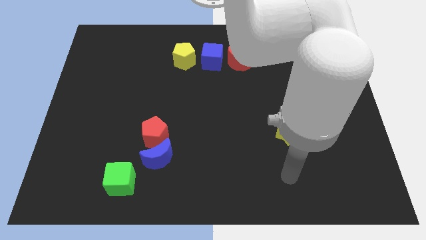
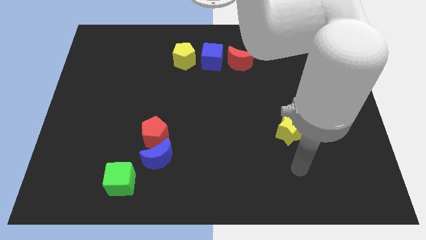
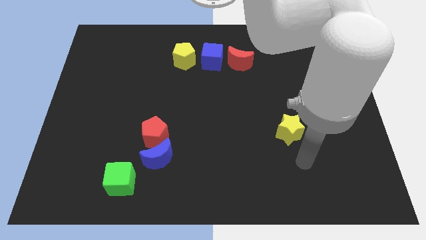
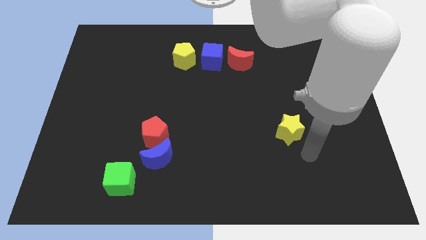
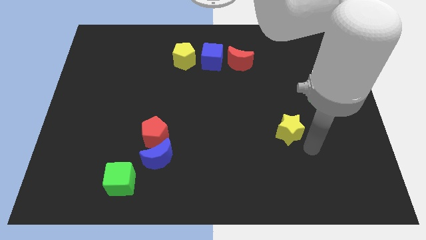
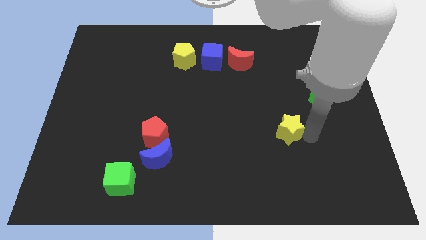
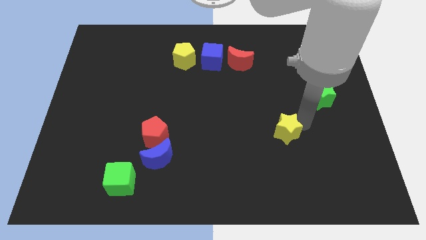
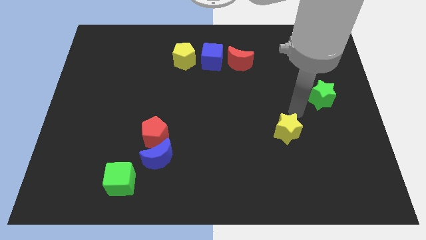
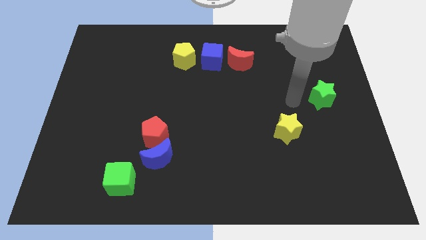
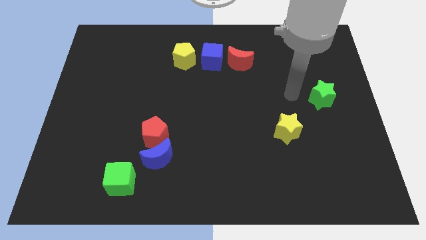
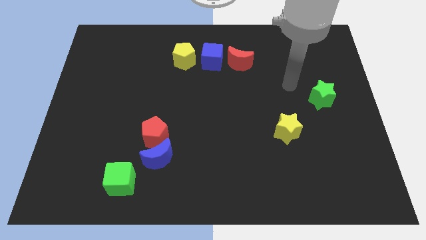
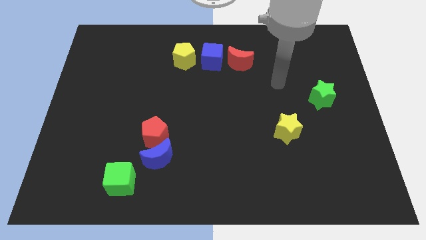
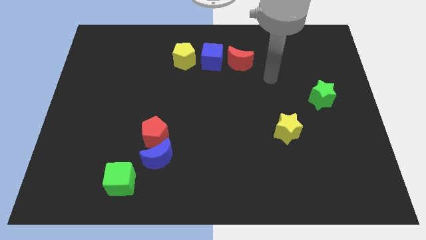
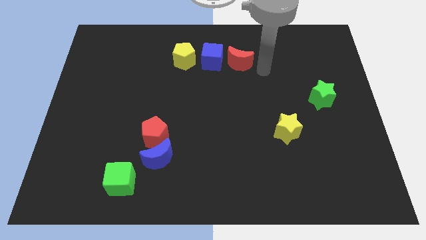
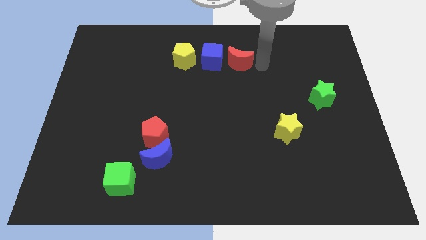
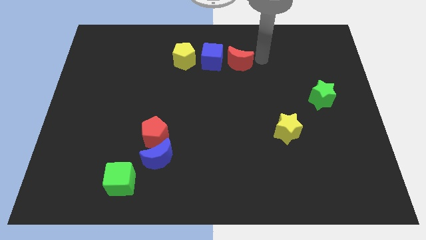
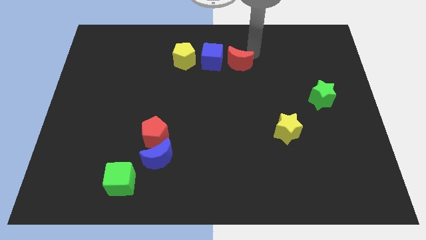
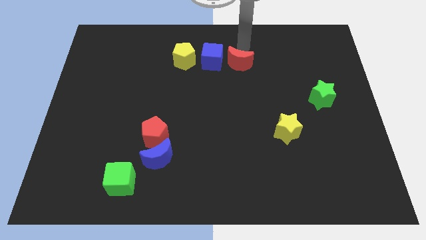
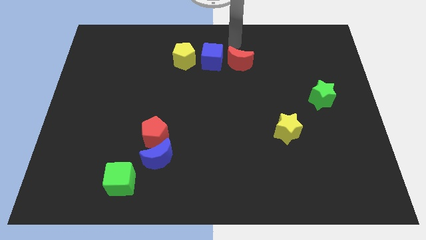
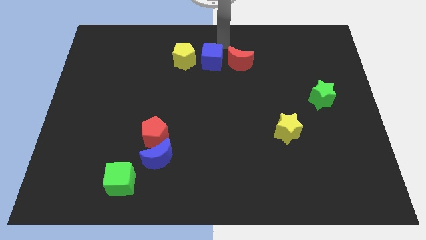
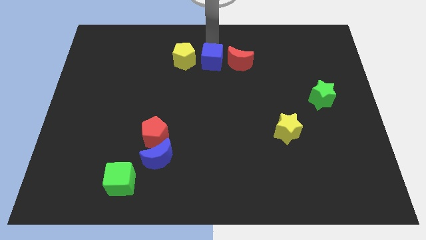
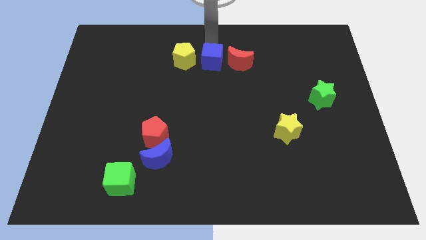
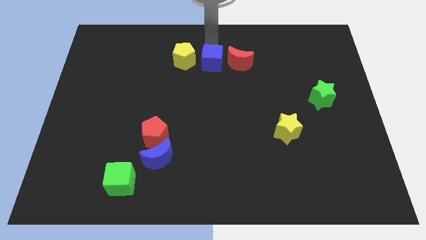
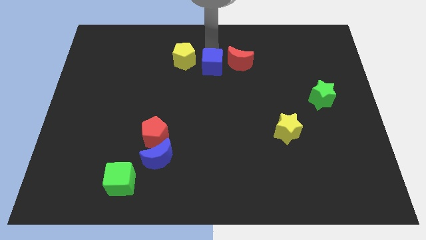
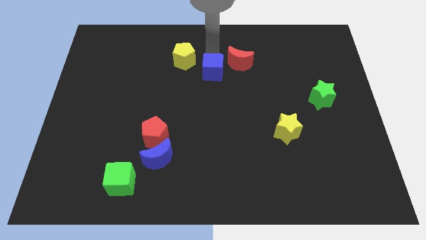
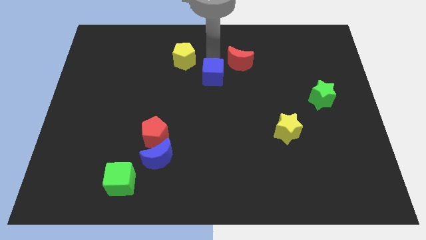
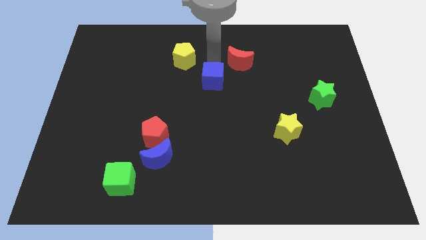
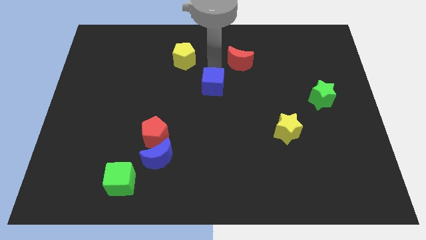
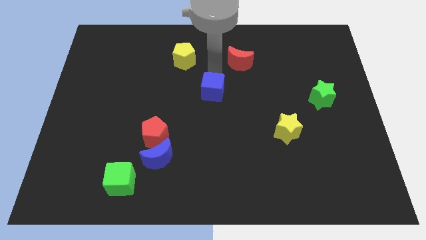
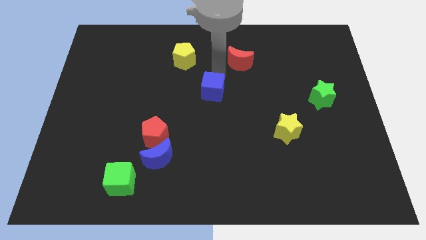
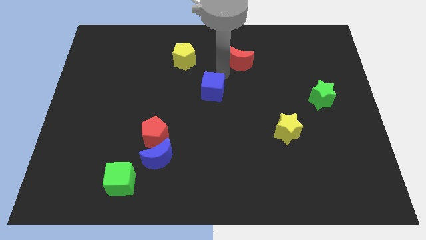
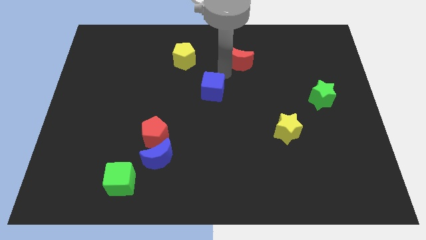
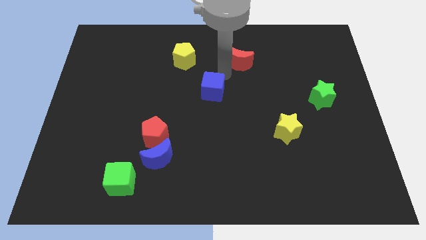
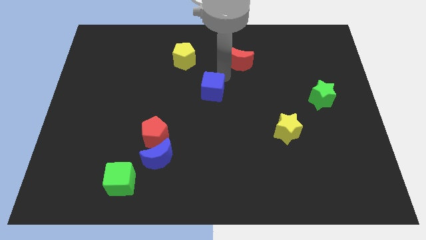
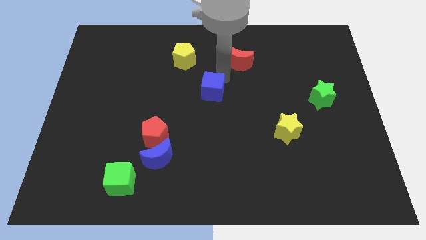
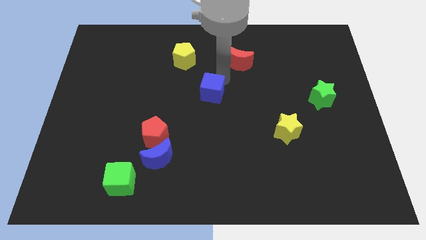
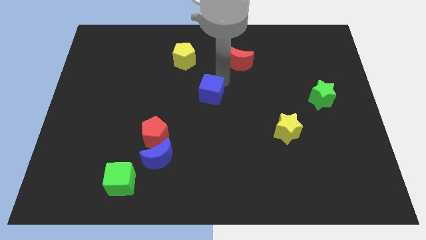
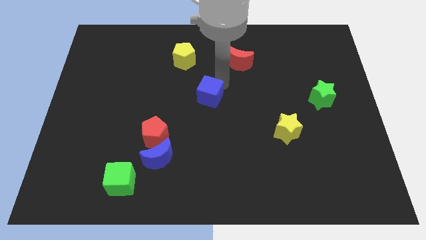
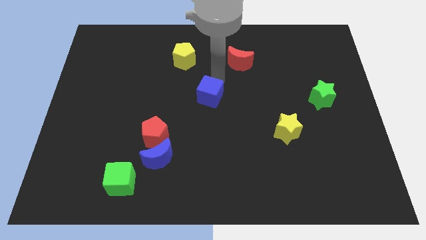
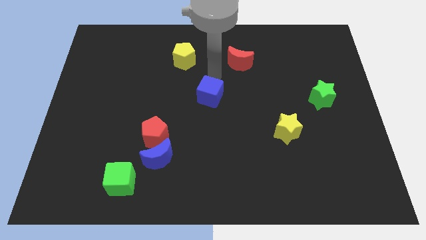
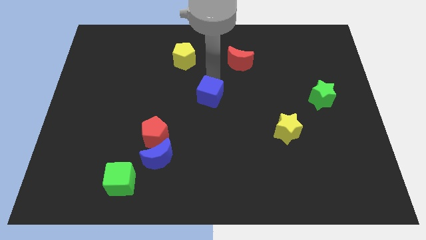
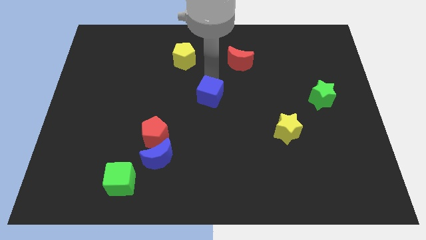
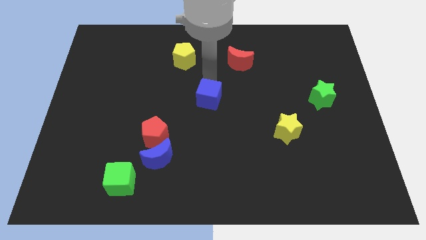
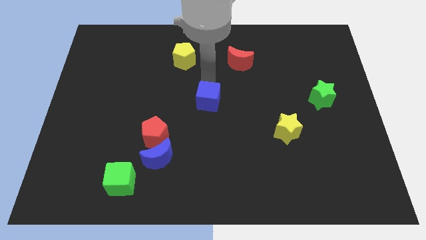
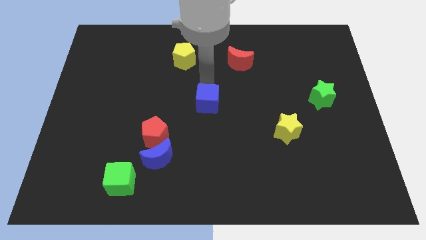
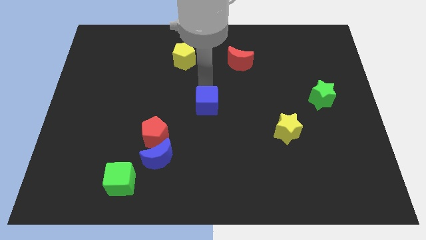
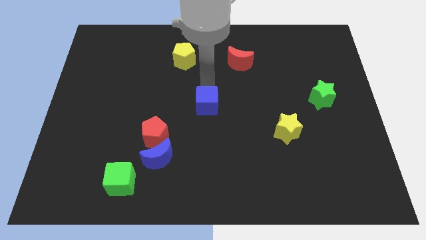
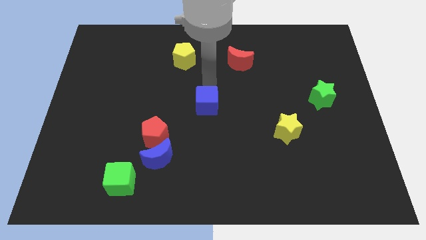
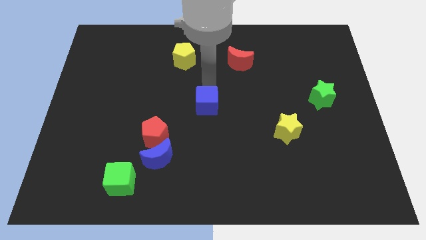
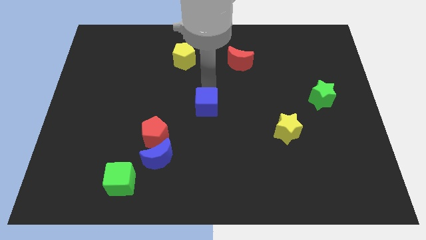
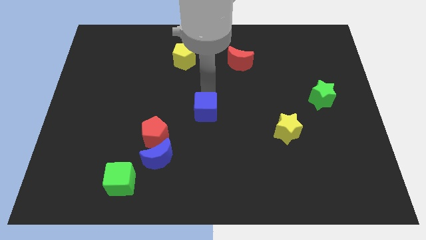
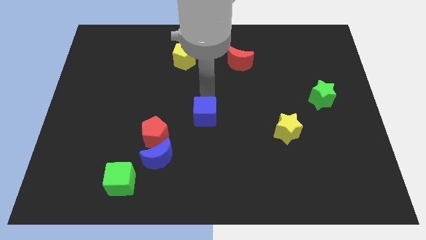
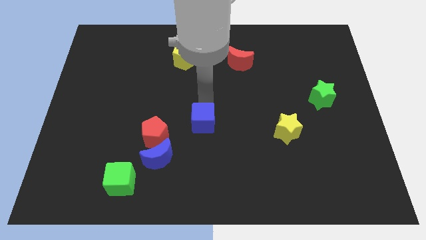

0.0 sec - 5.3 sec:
push the blue cube down

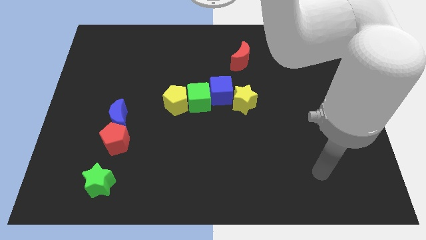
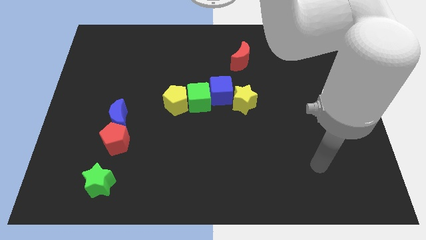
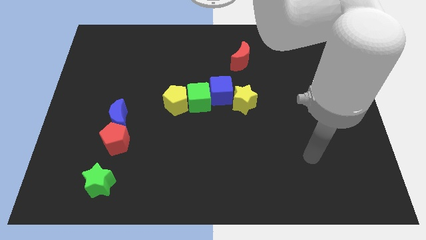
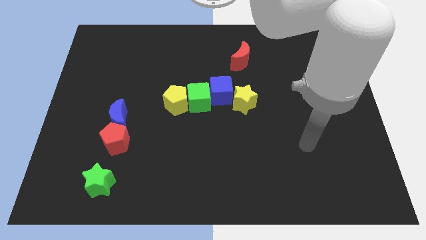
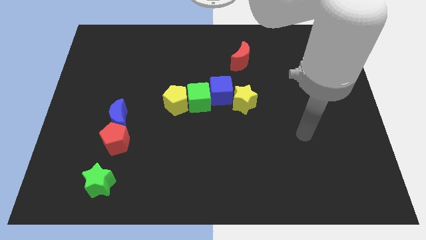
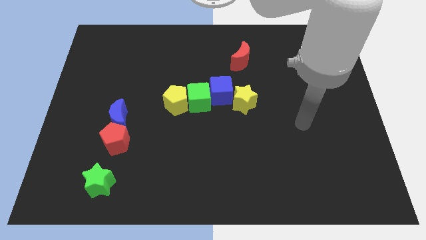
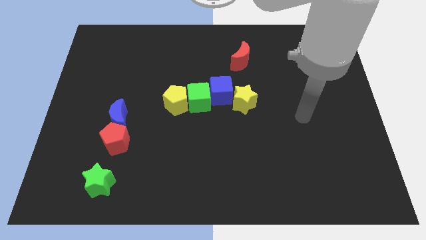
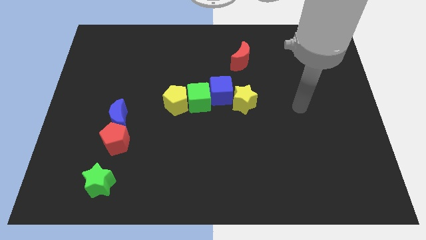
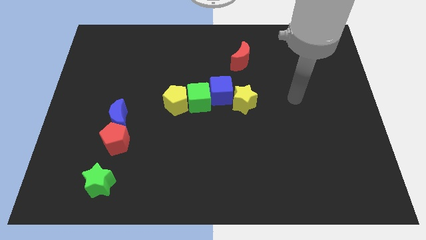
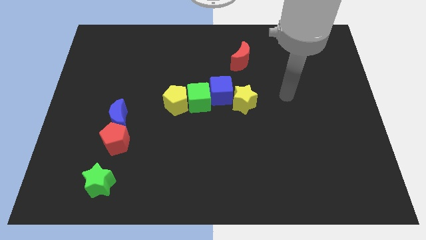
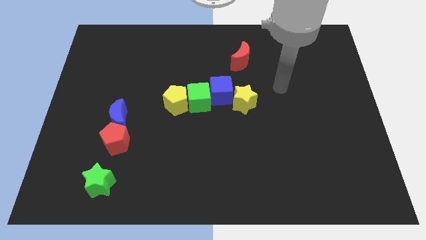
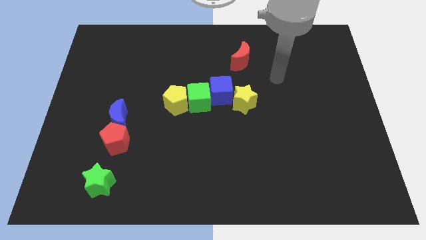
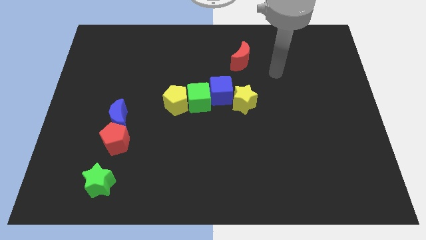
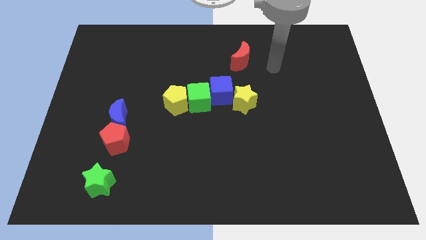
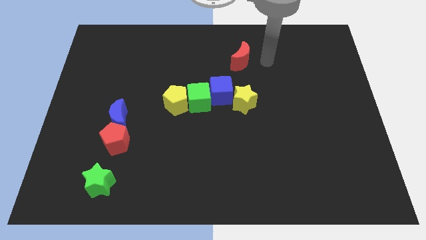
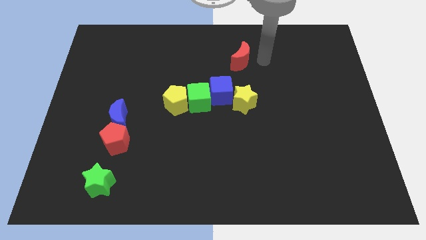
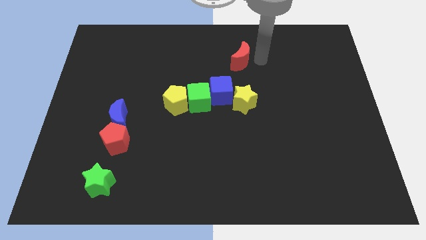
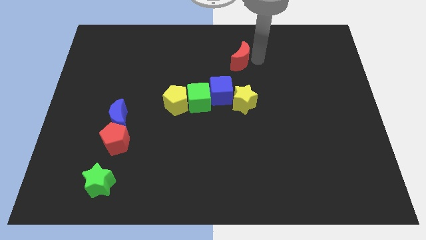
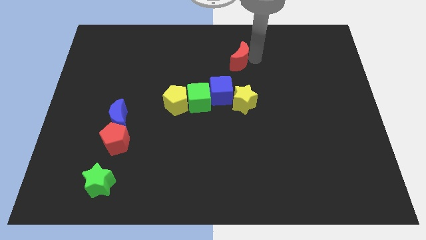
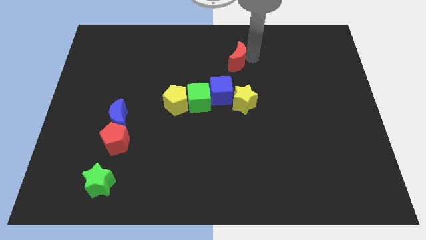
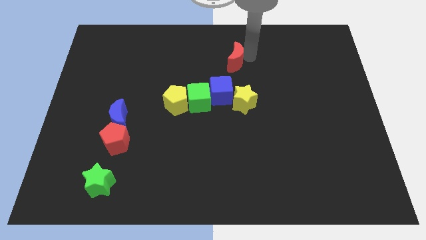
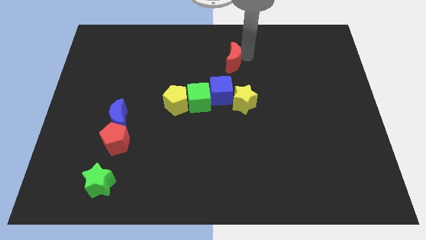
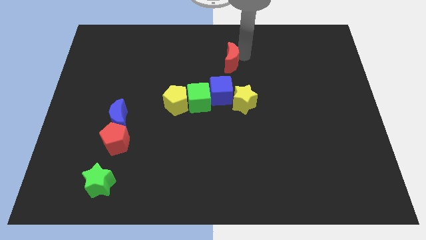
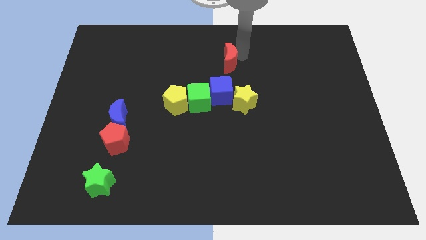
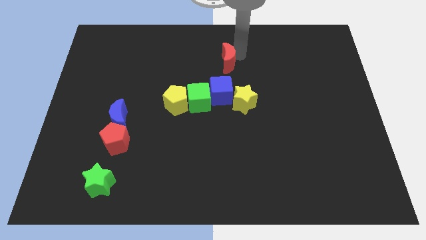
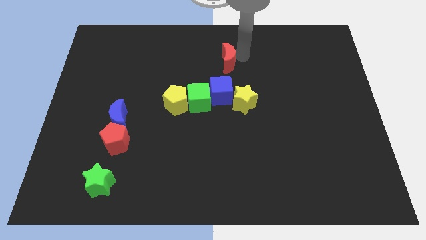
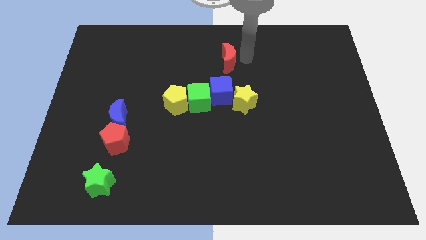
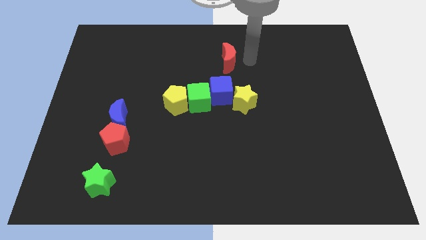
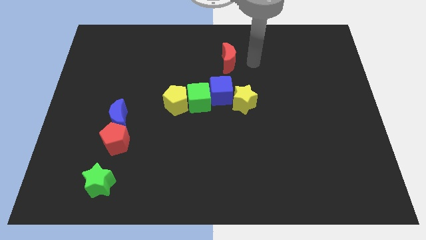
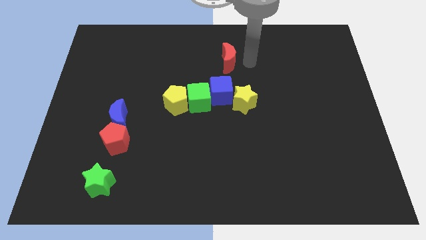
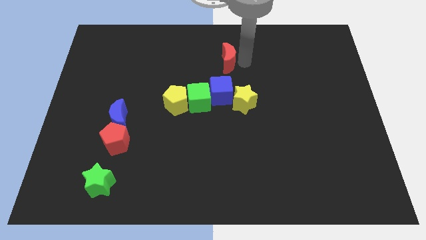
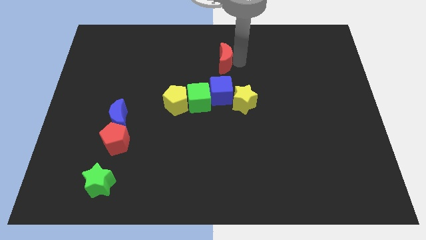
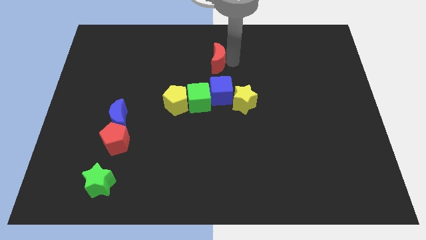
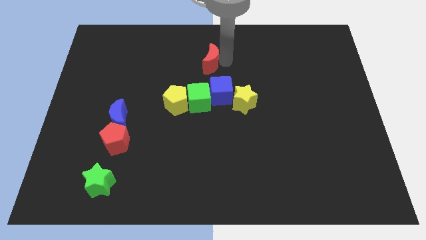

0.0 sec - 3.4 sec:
slightly move the red moon to the left
